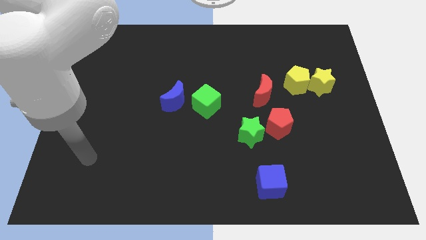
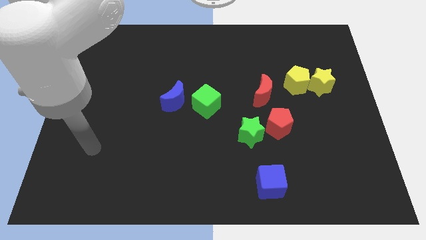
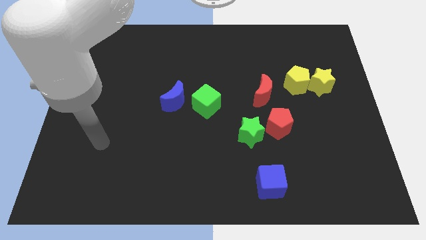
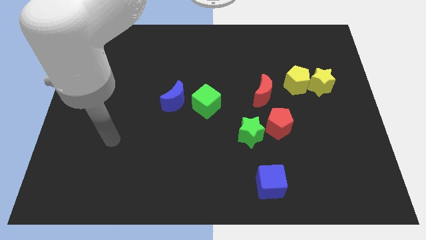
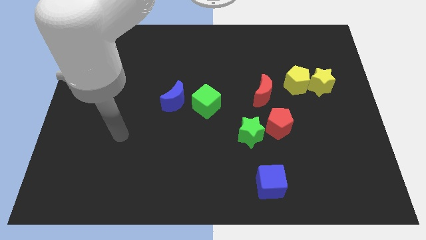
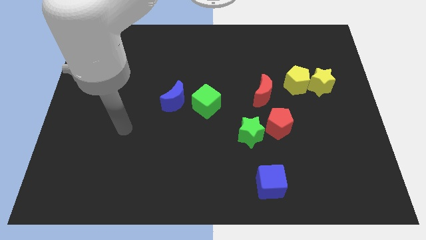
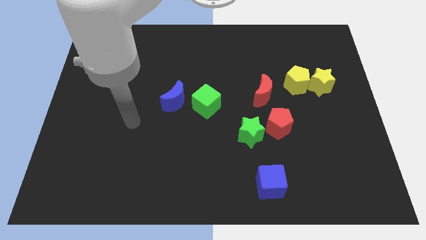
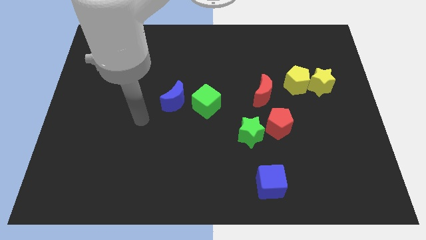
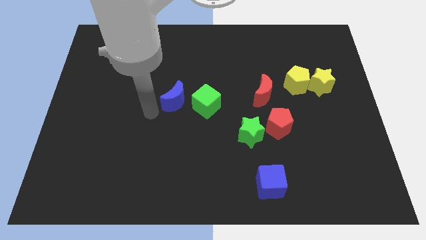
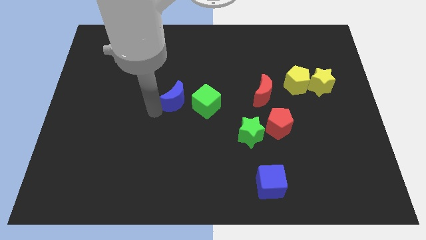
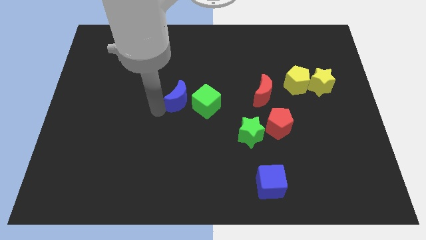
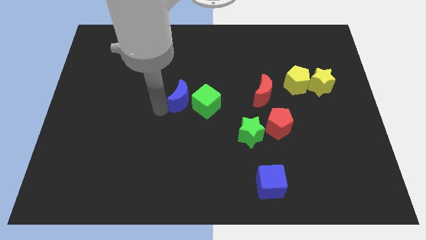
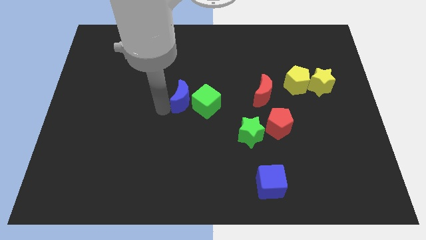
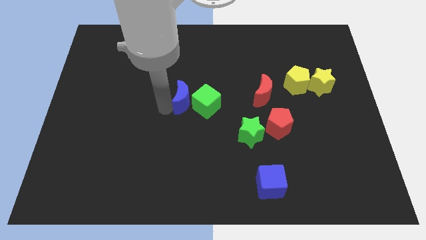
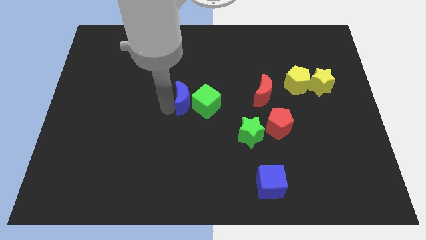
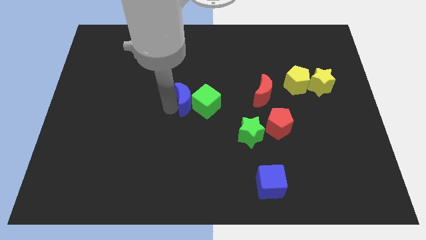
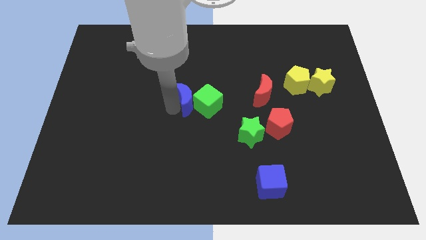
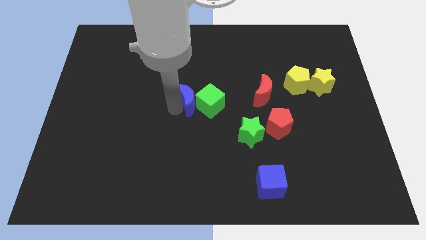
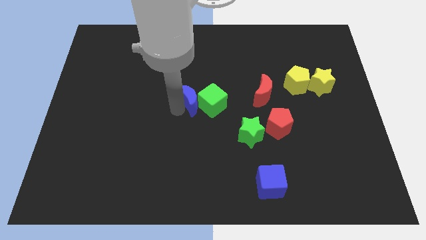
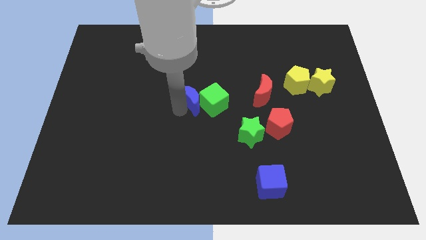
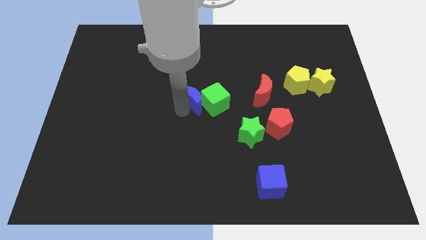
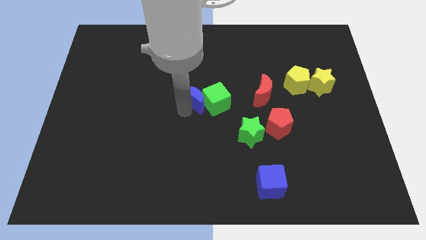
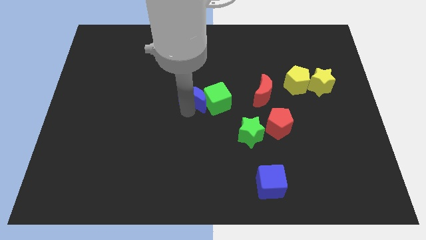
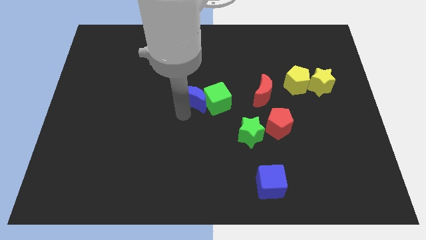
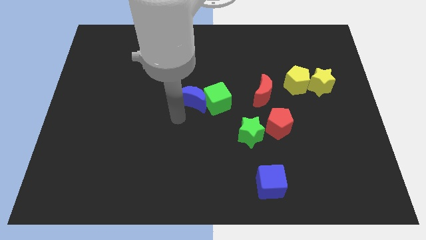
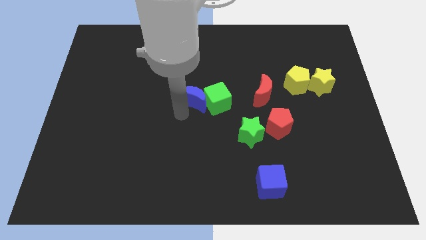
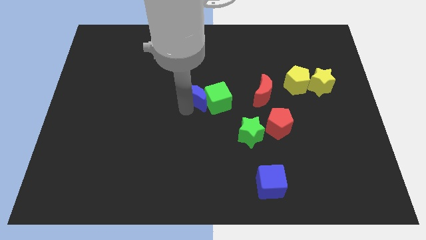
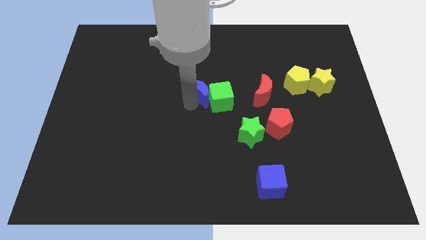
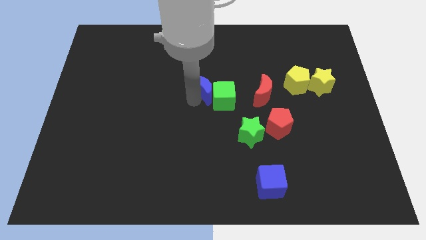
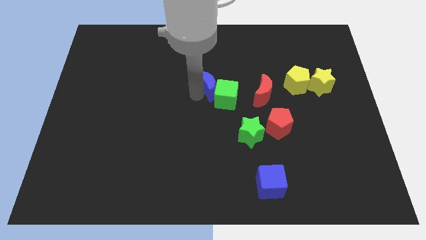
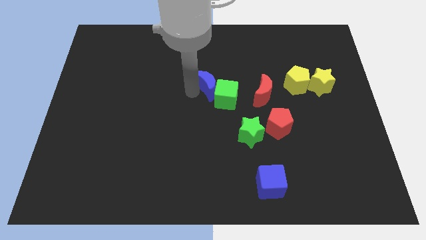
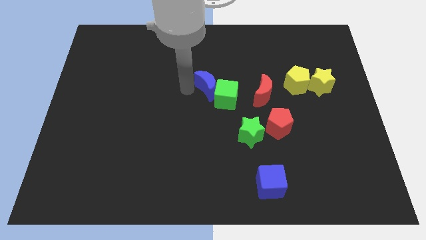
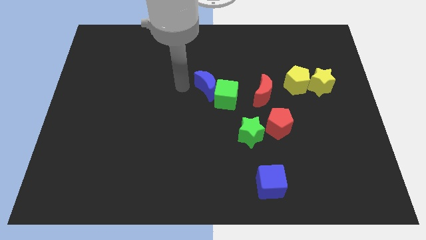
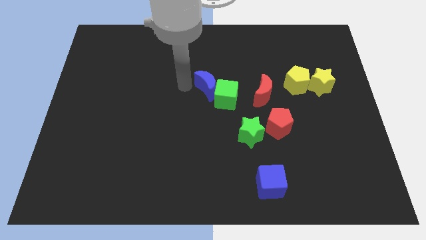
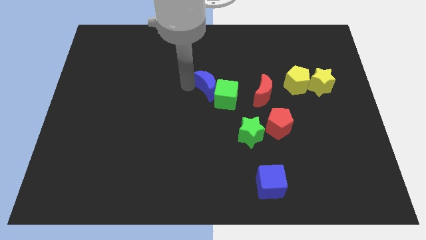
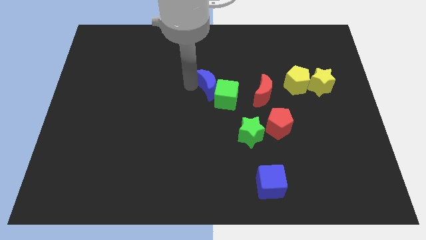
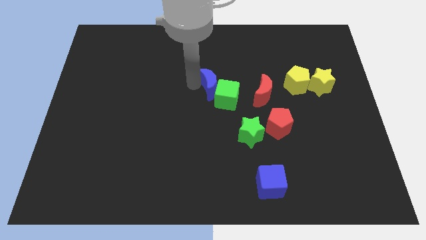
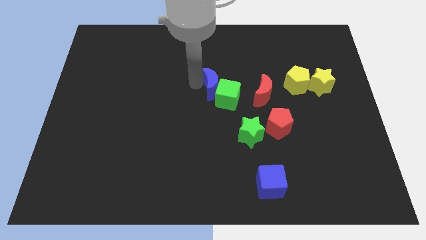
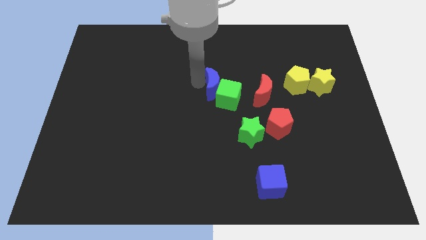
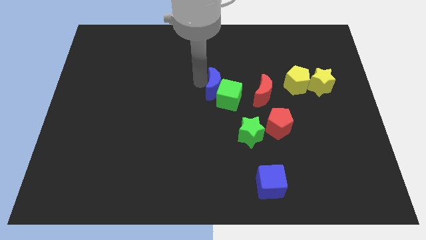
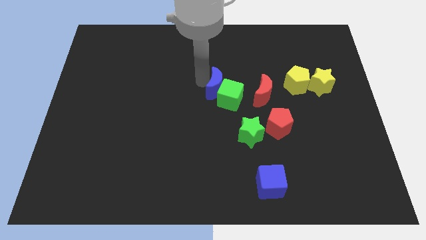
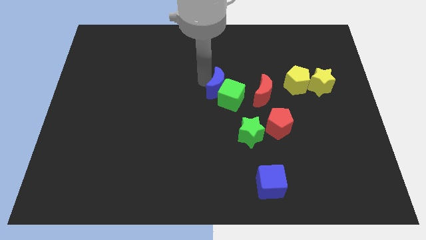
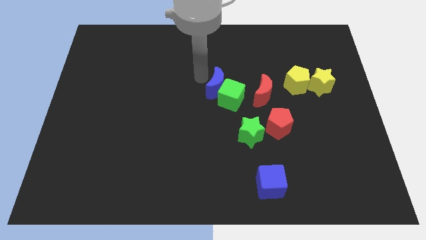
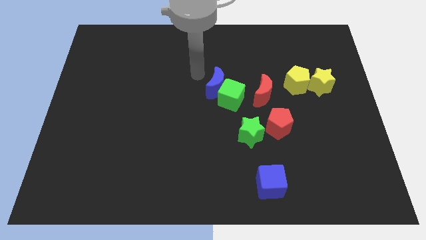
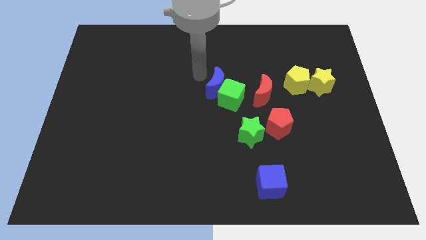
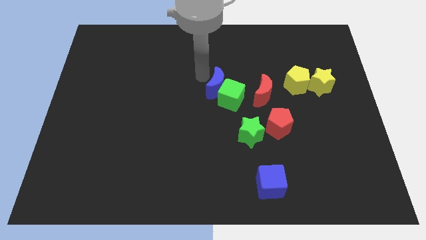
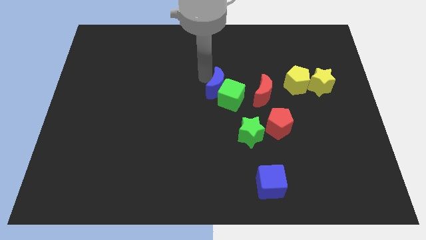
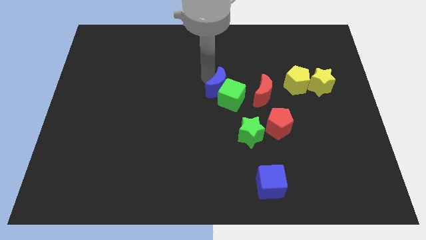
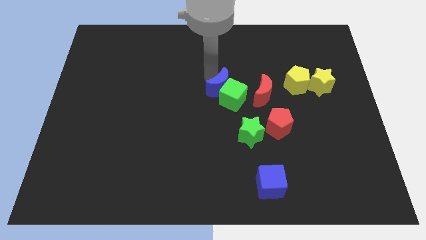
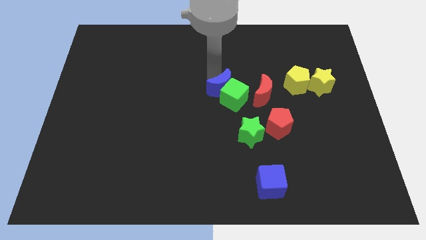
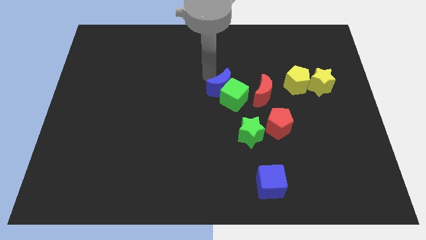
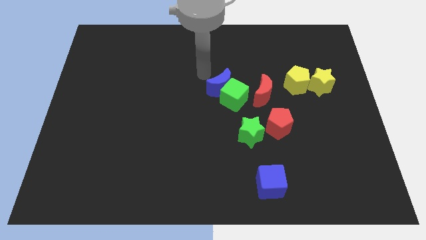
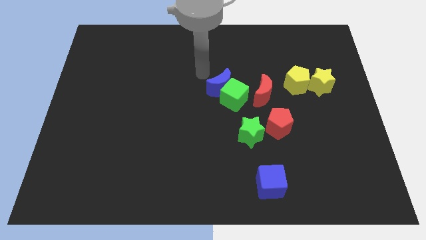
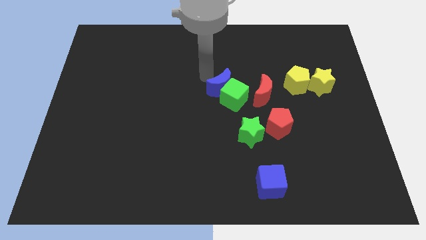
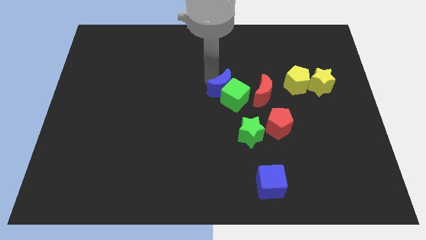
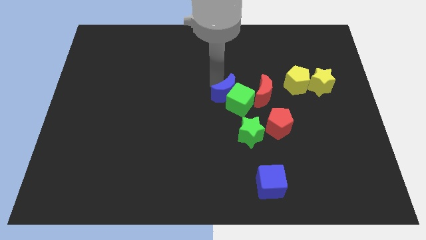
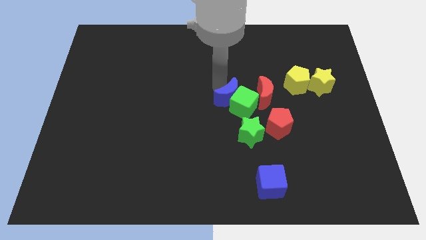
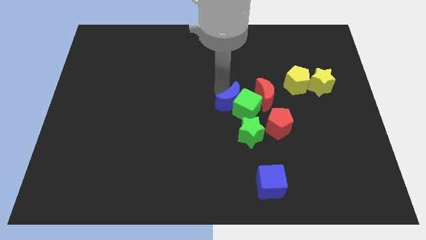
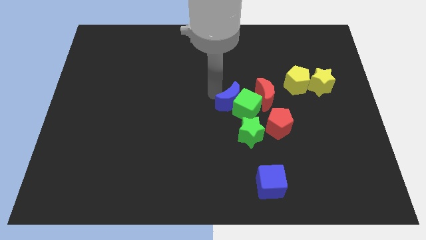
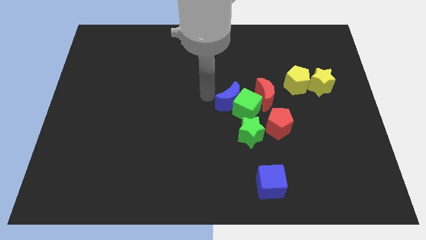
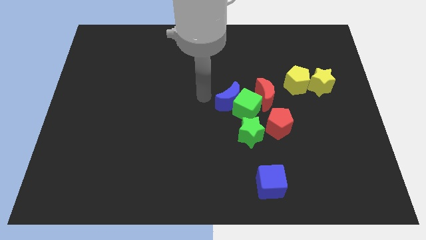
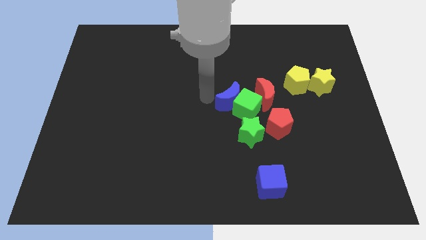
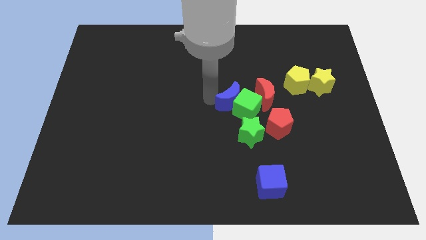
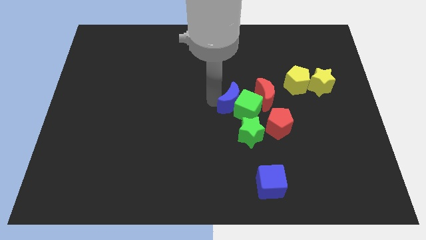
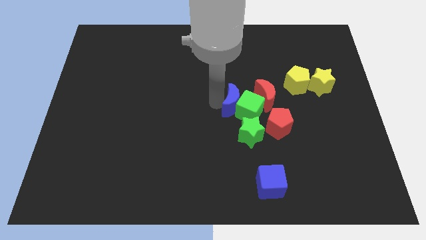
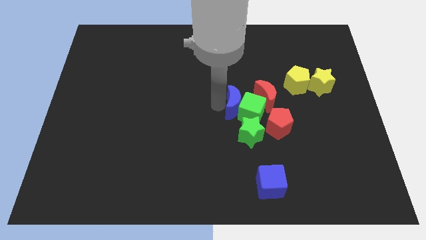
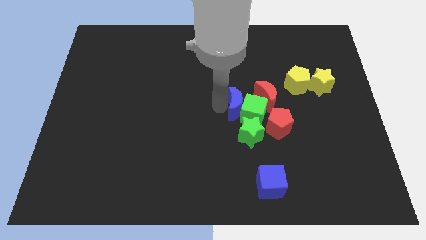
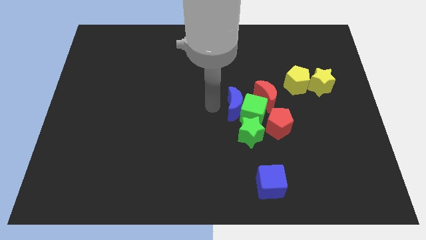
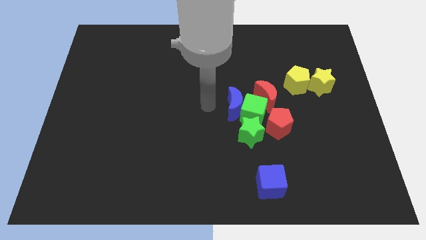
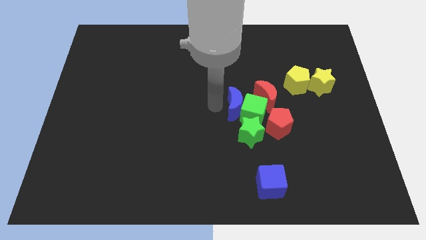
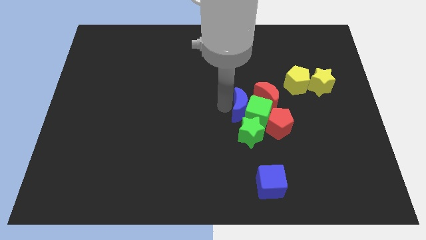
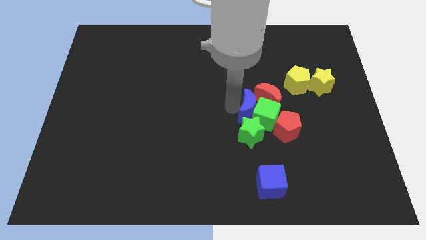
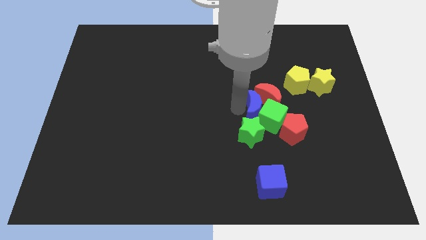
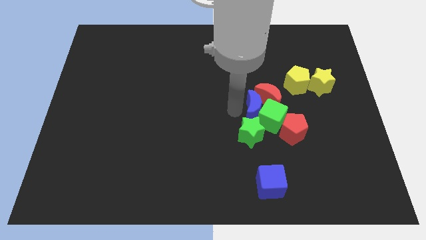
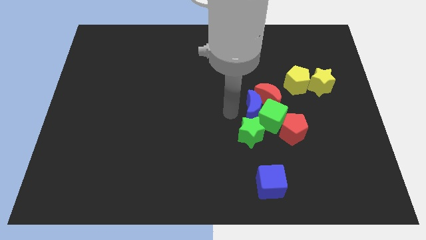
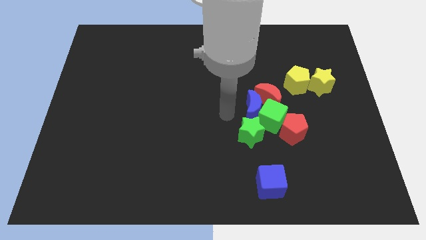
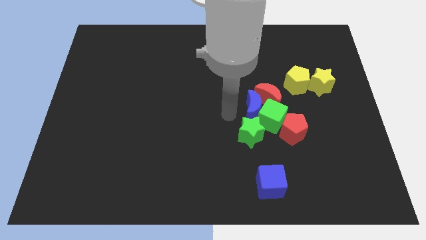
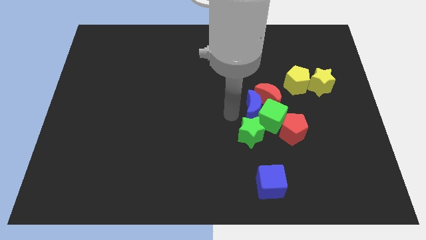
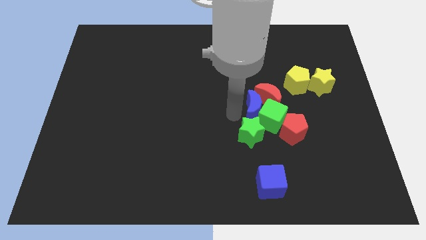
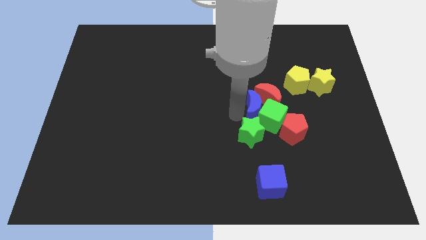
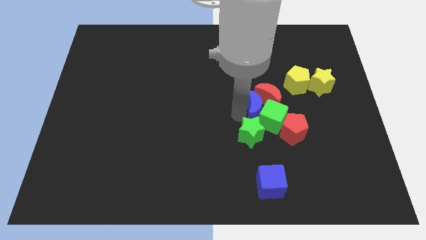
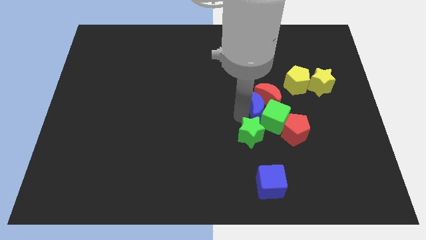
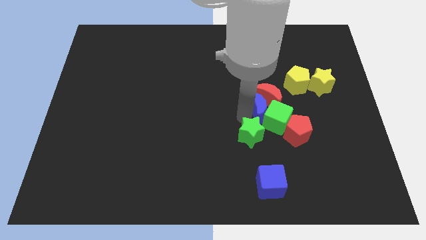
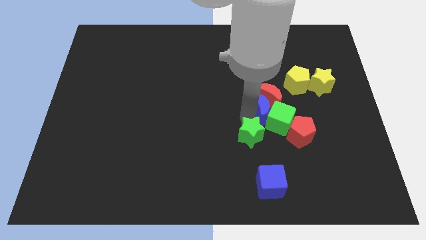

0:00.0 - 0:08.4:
move the blue moon to the bottom left of the yellow pentagon
